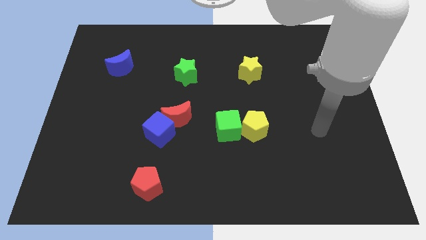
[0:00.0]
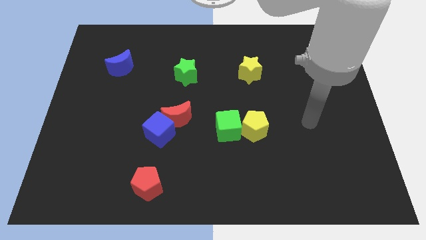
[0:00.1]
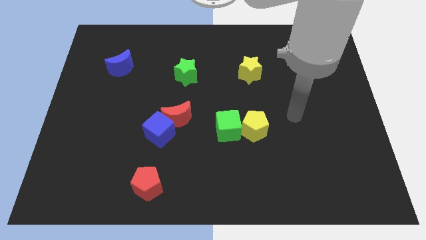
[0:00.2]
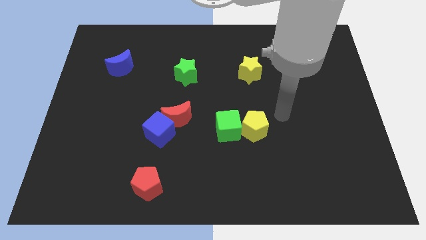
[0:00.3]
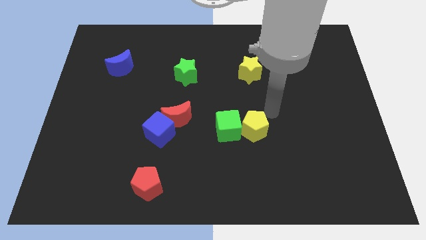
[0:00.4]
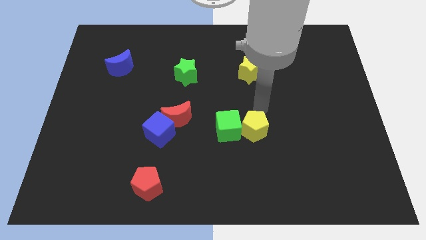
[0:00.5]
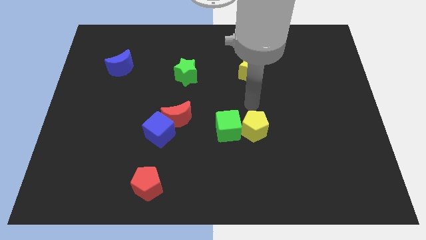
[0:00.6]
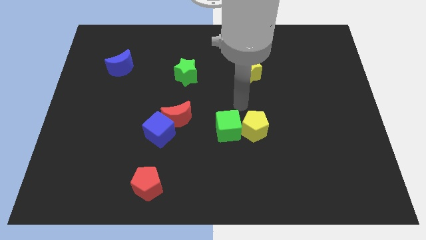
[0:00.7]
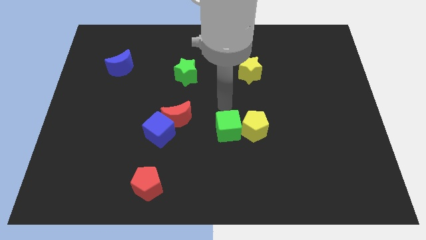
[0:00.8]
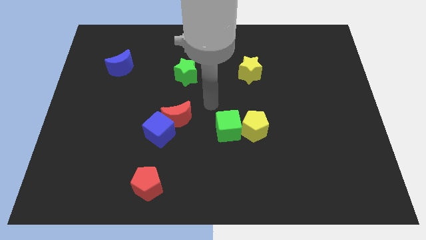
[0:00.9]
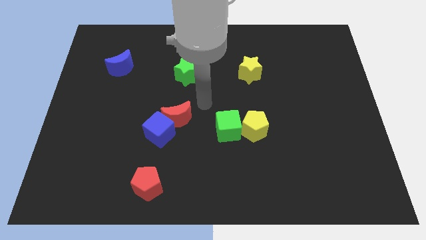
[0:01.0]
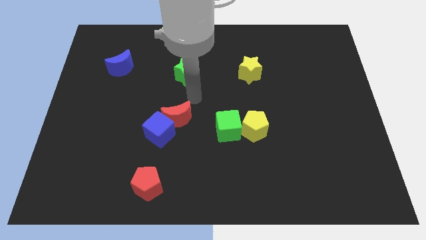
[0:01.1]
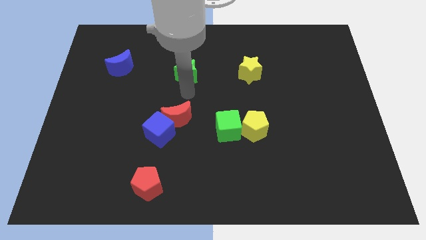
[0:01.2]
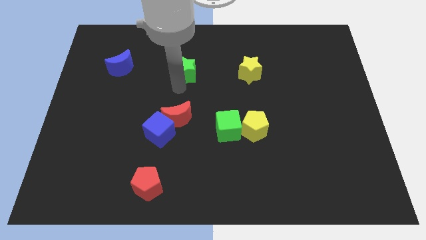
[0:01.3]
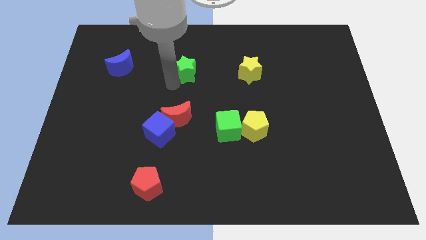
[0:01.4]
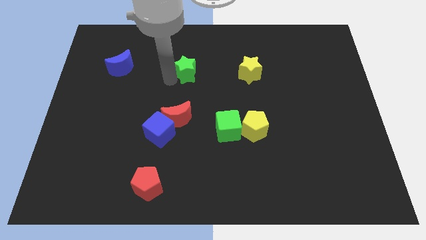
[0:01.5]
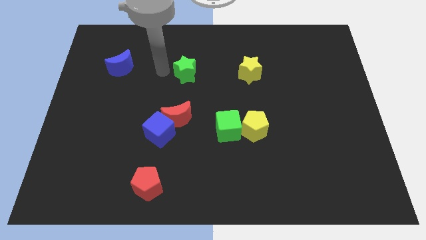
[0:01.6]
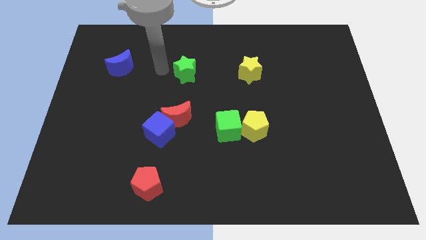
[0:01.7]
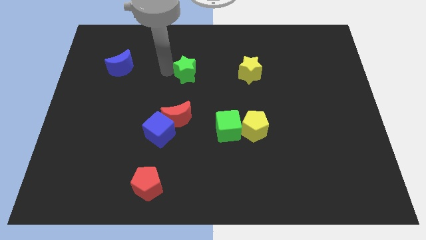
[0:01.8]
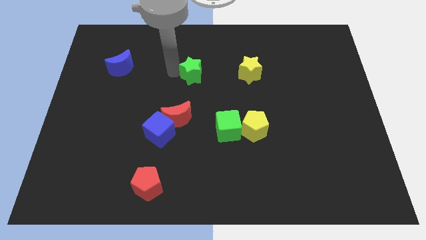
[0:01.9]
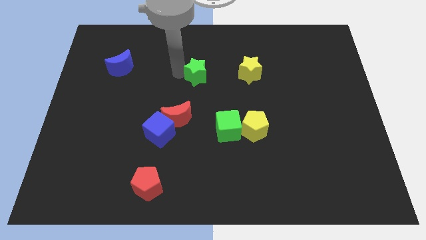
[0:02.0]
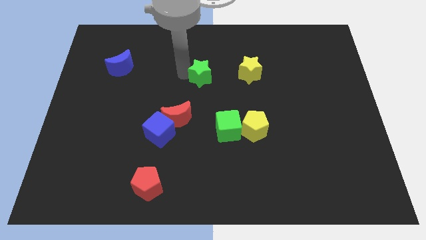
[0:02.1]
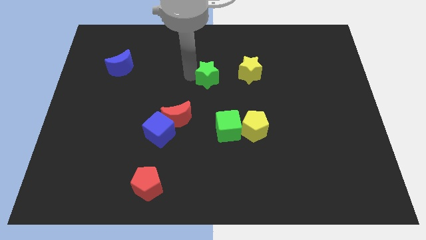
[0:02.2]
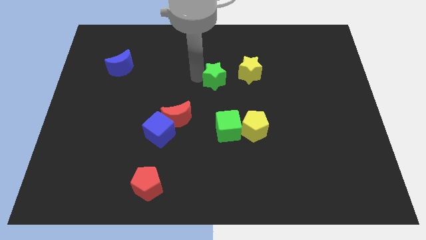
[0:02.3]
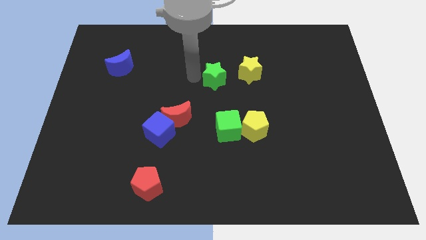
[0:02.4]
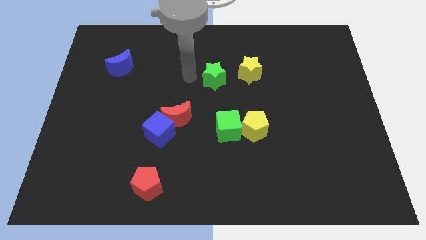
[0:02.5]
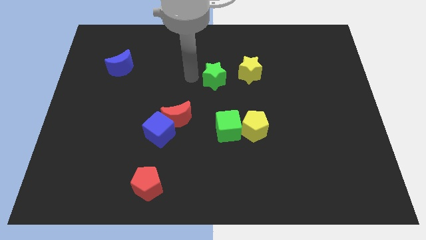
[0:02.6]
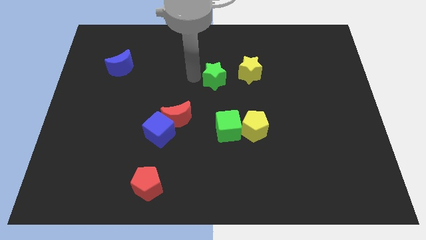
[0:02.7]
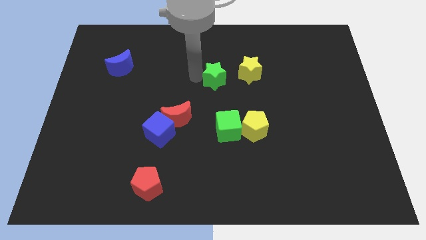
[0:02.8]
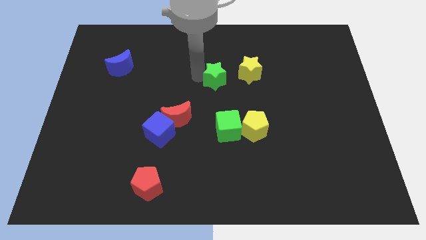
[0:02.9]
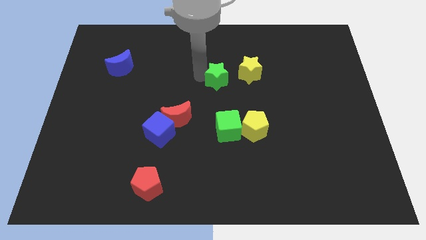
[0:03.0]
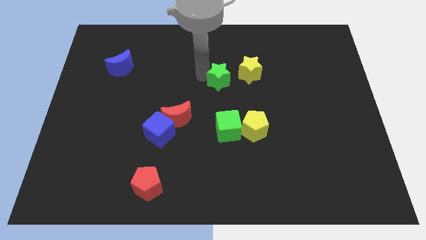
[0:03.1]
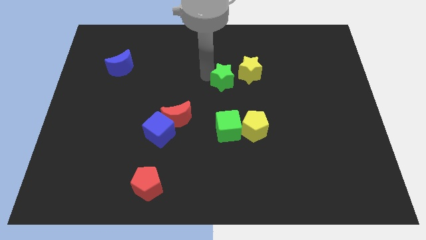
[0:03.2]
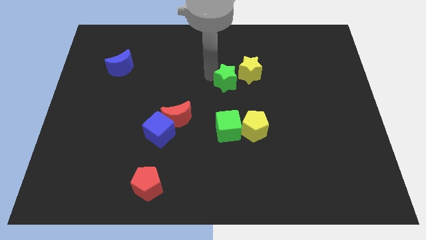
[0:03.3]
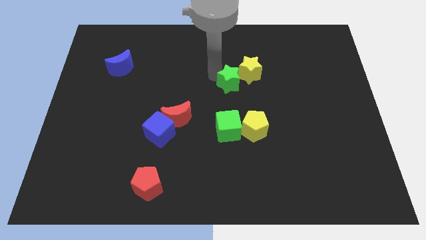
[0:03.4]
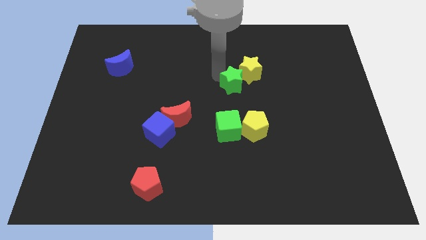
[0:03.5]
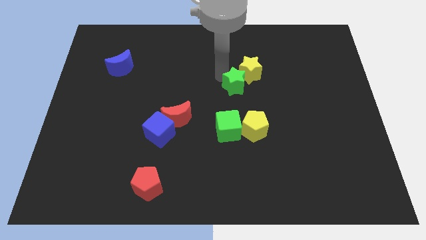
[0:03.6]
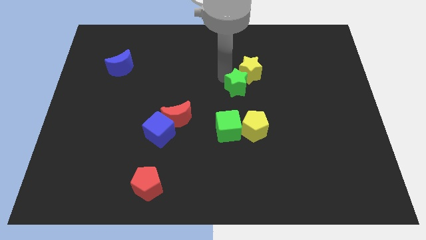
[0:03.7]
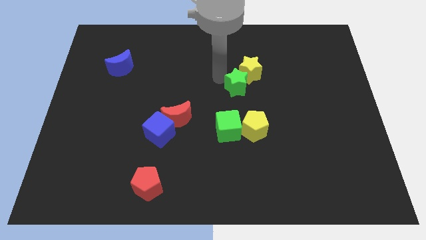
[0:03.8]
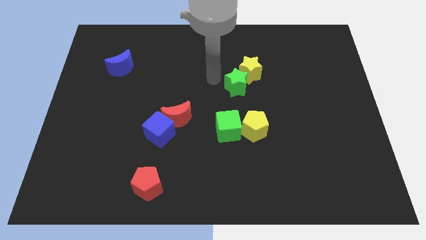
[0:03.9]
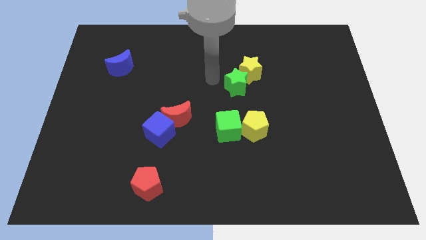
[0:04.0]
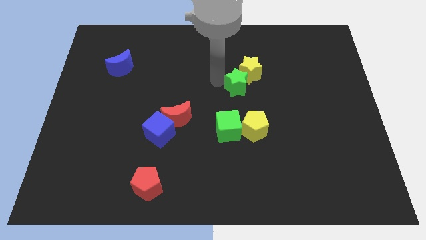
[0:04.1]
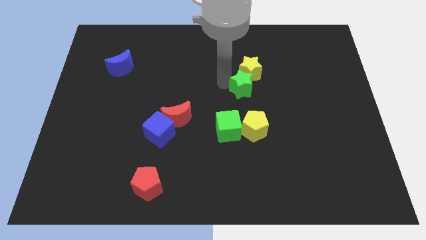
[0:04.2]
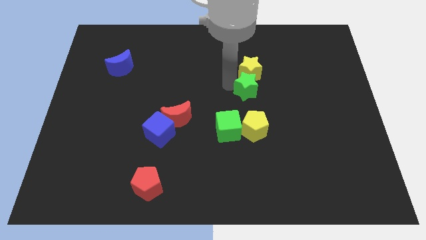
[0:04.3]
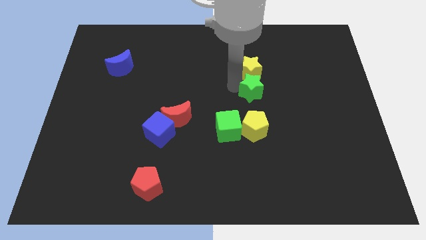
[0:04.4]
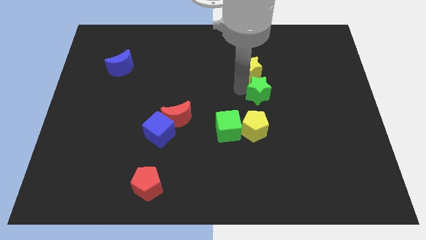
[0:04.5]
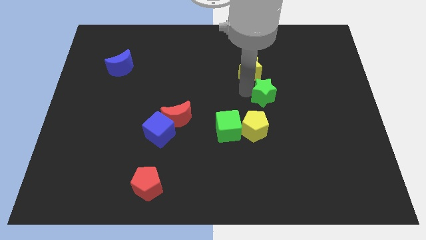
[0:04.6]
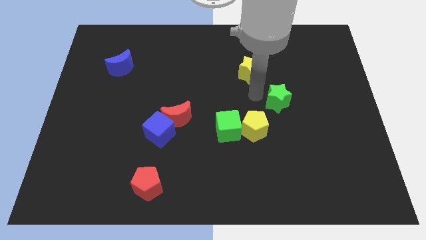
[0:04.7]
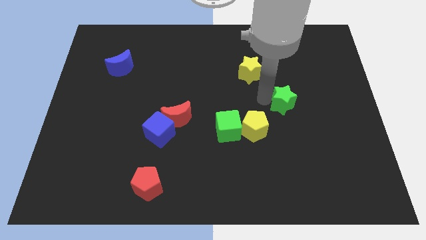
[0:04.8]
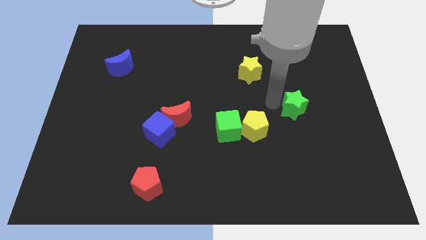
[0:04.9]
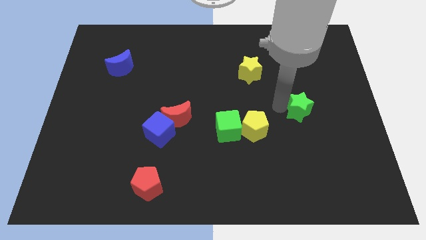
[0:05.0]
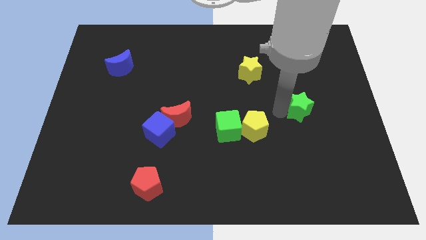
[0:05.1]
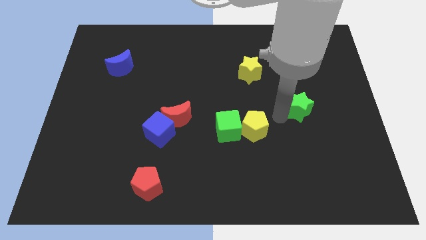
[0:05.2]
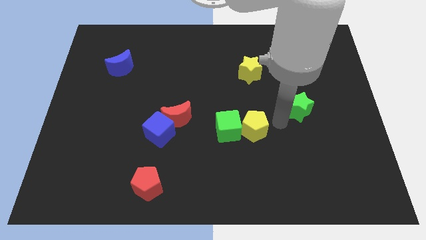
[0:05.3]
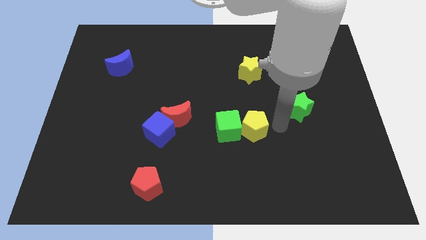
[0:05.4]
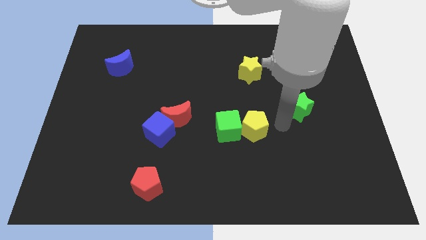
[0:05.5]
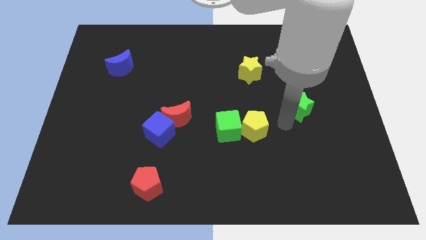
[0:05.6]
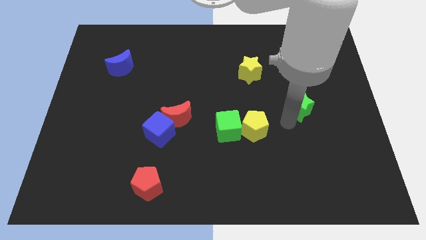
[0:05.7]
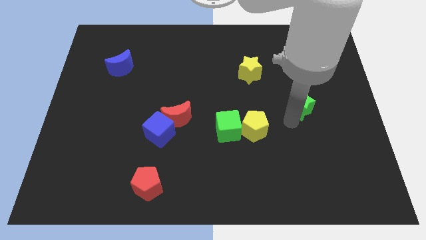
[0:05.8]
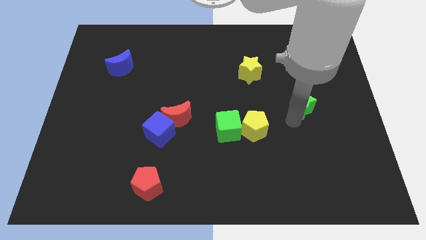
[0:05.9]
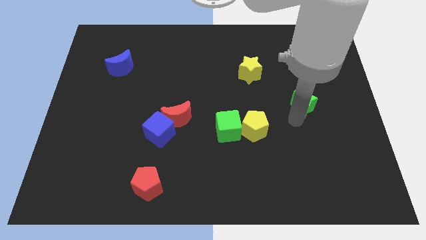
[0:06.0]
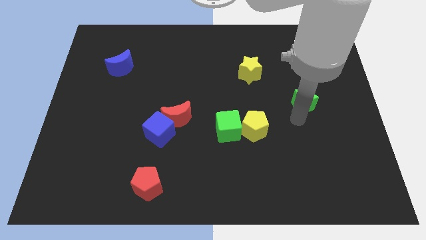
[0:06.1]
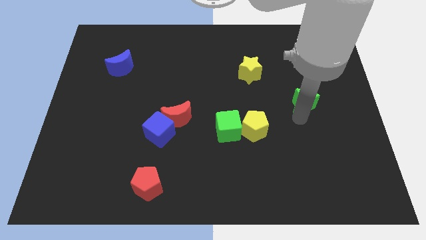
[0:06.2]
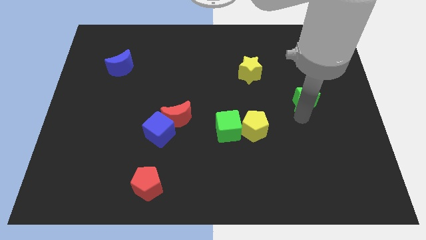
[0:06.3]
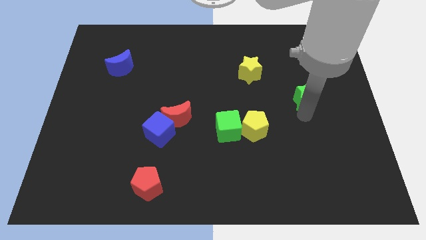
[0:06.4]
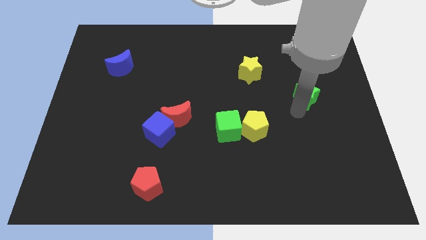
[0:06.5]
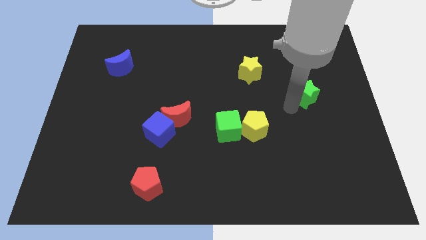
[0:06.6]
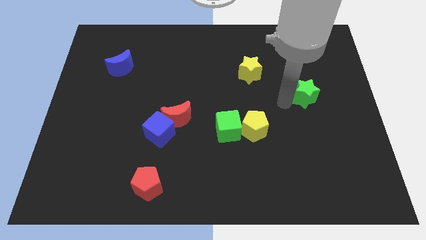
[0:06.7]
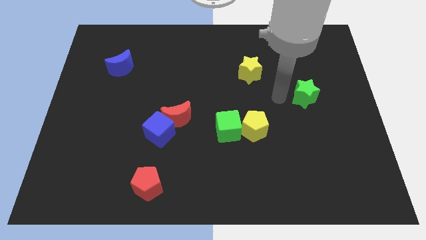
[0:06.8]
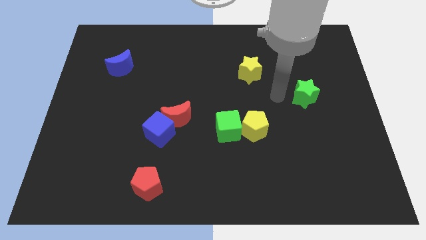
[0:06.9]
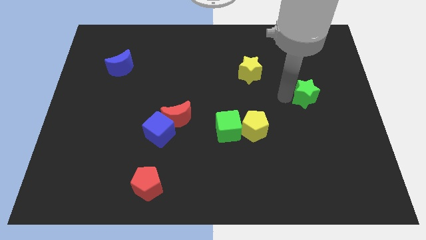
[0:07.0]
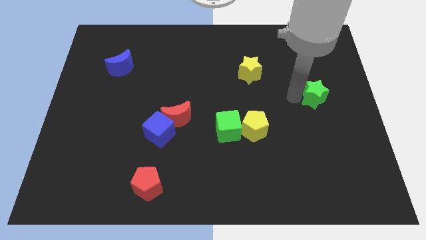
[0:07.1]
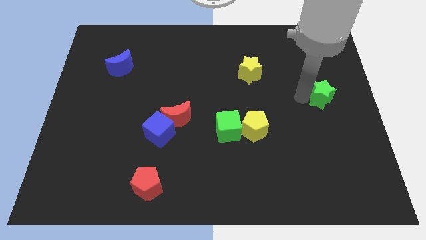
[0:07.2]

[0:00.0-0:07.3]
move the green star to the center right
